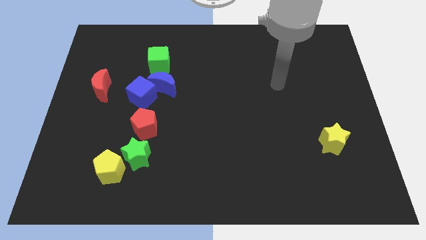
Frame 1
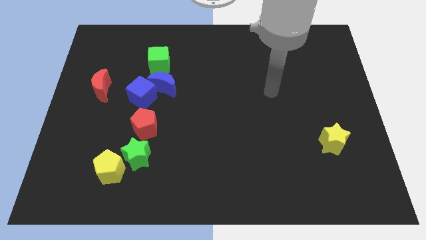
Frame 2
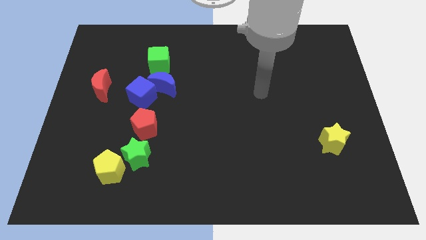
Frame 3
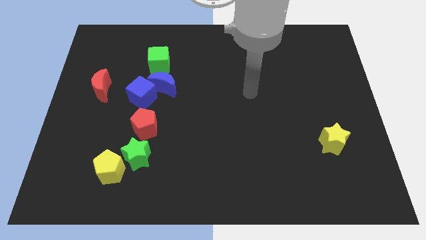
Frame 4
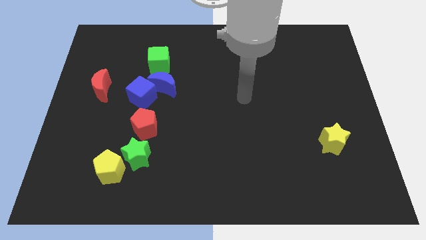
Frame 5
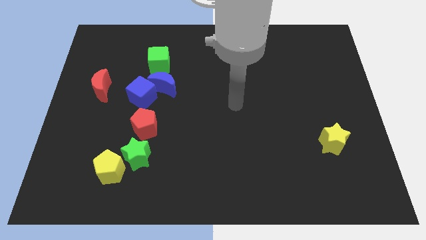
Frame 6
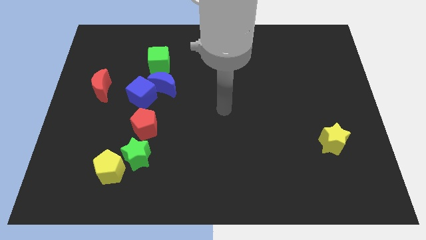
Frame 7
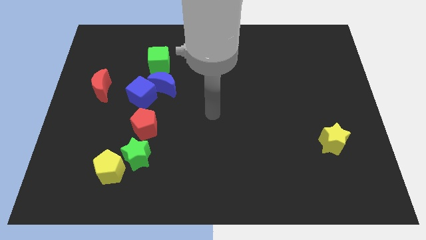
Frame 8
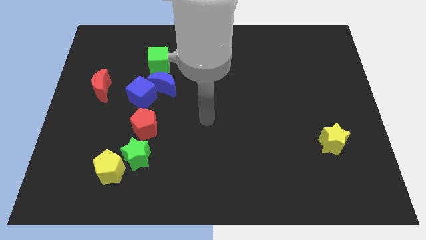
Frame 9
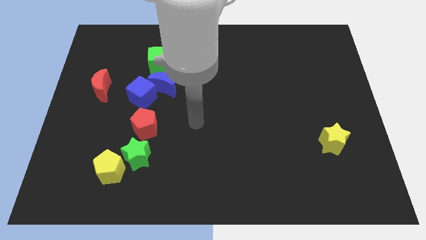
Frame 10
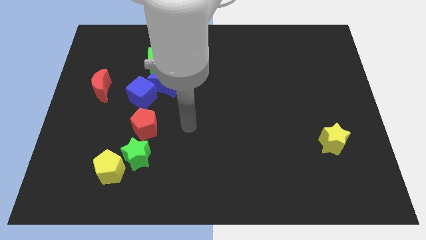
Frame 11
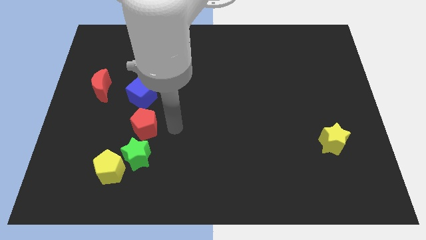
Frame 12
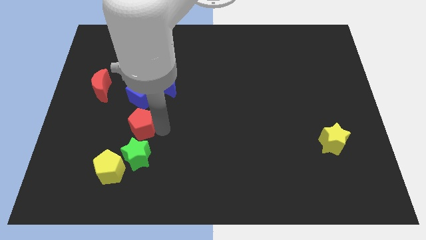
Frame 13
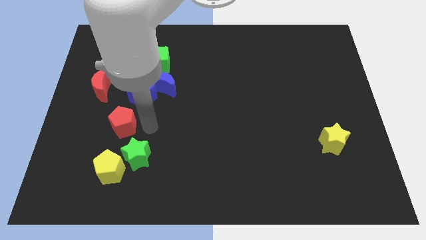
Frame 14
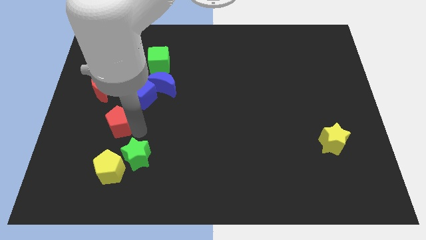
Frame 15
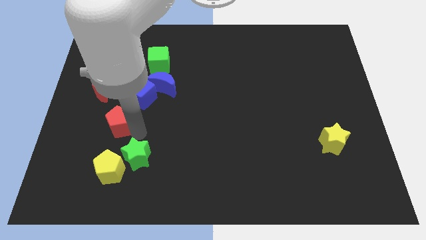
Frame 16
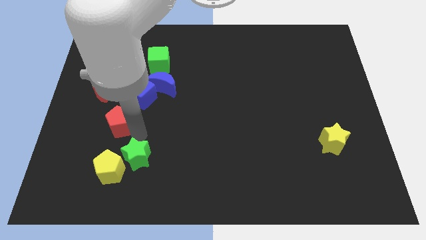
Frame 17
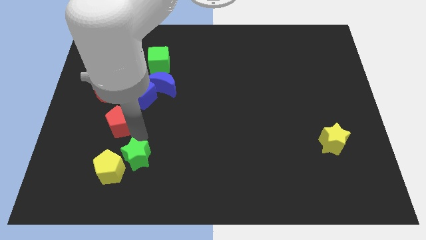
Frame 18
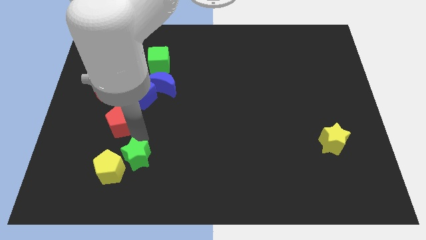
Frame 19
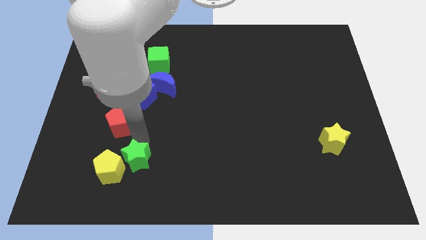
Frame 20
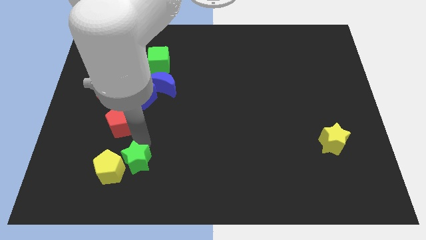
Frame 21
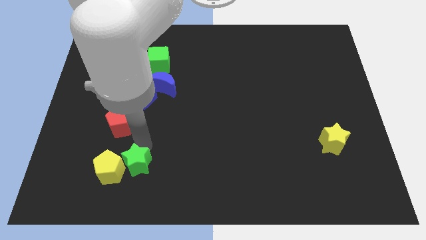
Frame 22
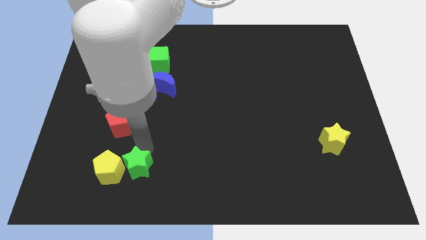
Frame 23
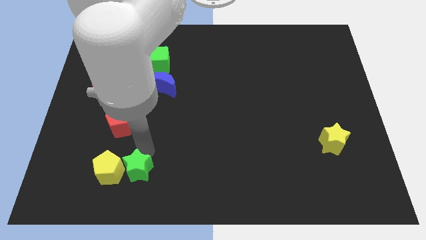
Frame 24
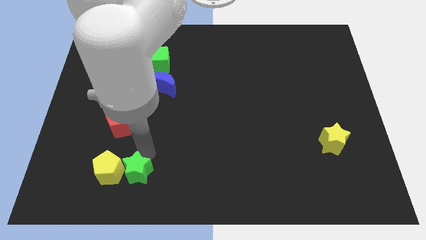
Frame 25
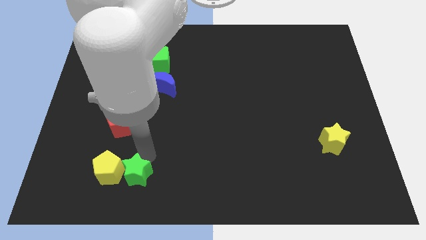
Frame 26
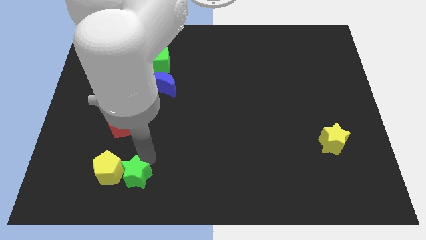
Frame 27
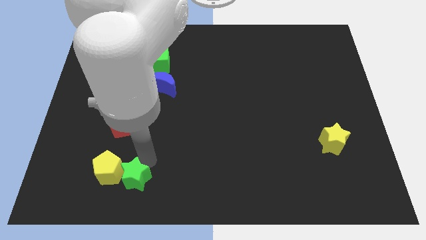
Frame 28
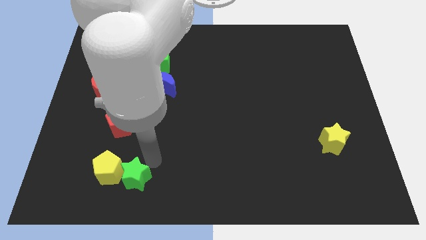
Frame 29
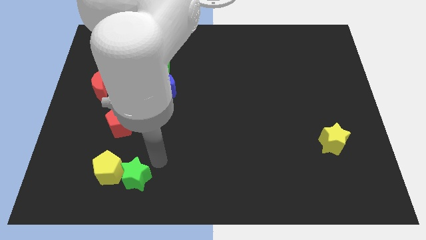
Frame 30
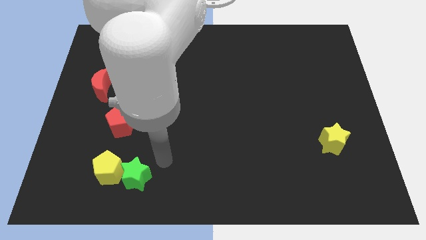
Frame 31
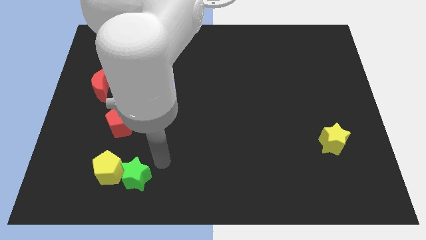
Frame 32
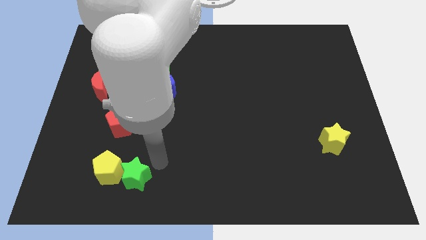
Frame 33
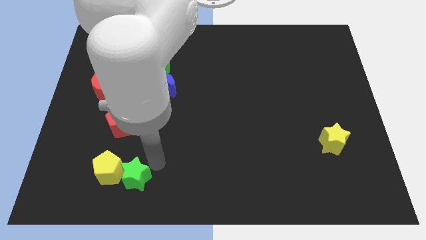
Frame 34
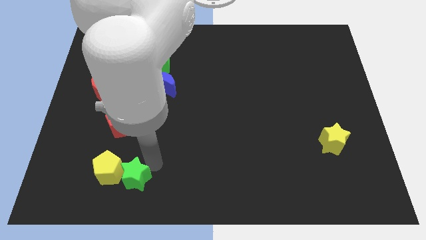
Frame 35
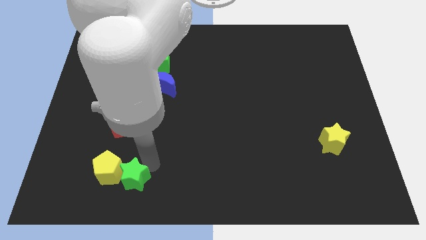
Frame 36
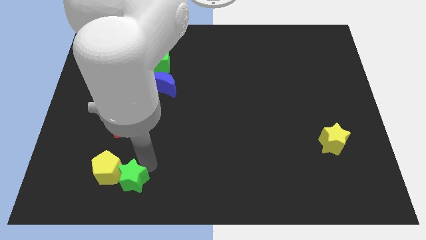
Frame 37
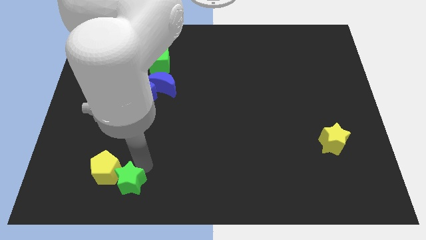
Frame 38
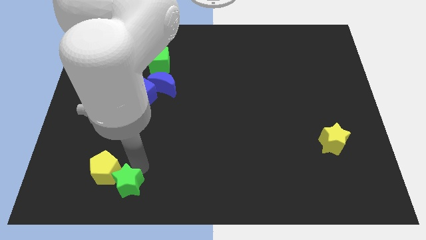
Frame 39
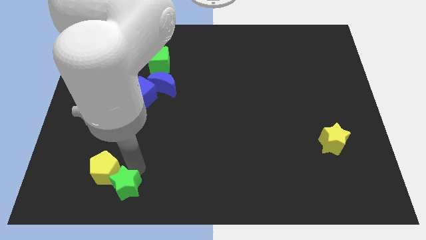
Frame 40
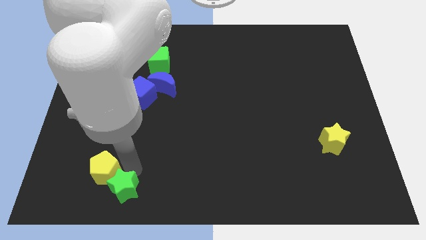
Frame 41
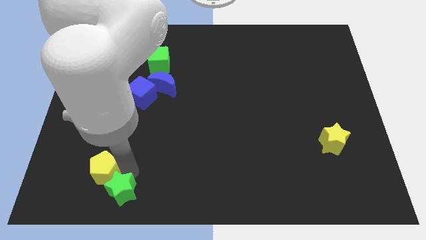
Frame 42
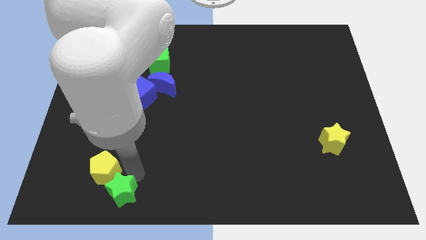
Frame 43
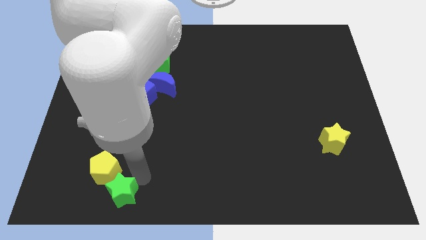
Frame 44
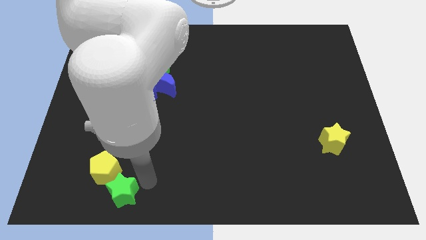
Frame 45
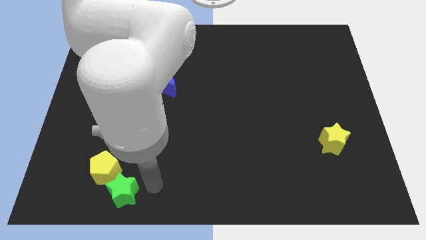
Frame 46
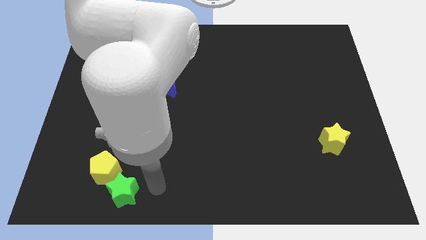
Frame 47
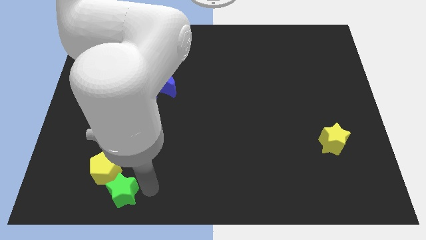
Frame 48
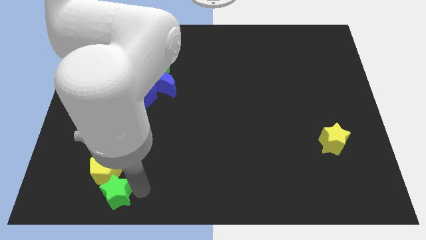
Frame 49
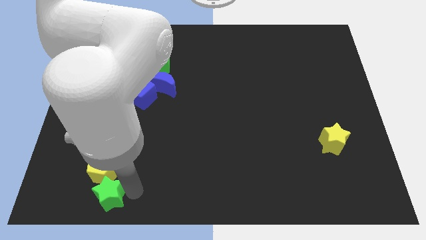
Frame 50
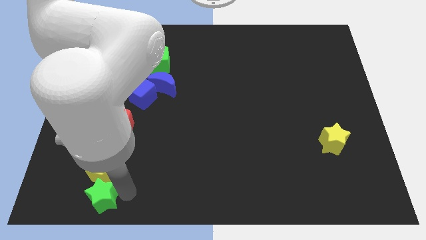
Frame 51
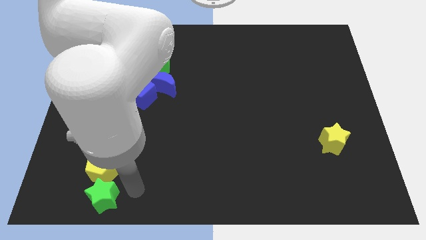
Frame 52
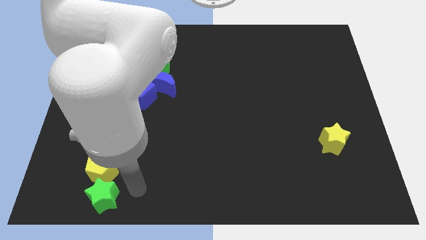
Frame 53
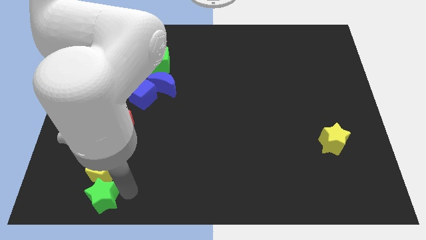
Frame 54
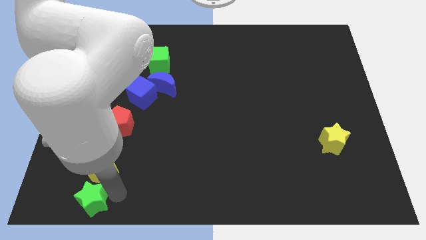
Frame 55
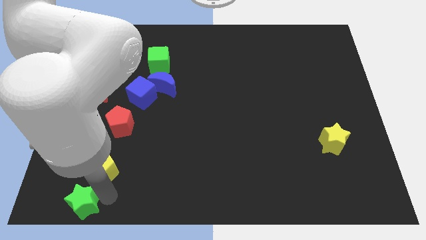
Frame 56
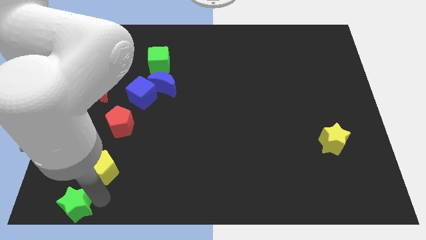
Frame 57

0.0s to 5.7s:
push the green star to the bottom left of the board

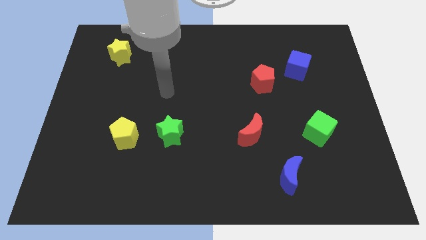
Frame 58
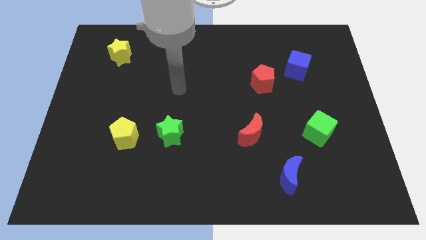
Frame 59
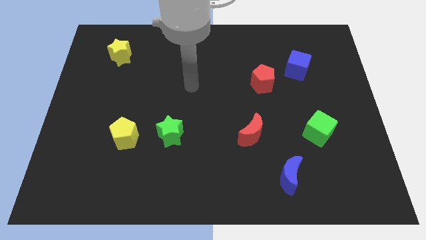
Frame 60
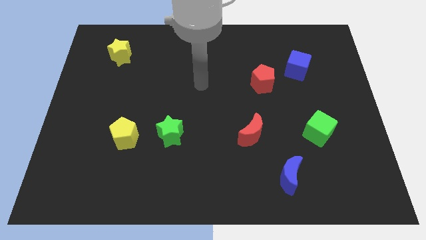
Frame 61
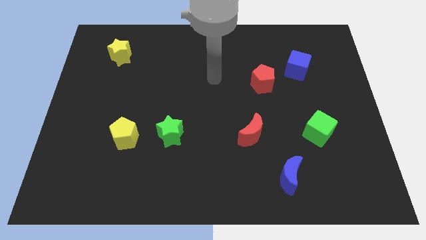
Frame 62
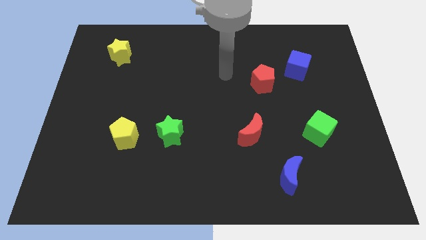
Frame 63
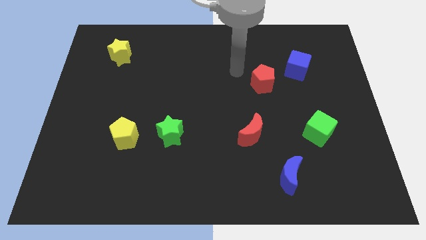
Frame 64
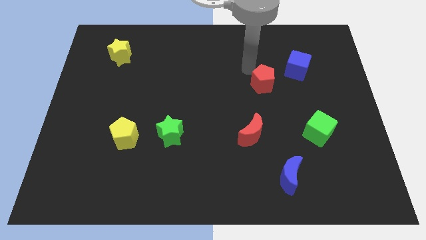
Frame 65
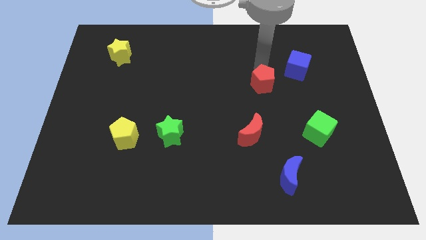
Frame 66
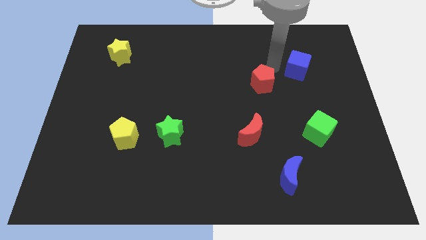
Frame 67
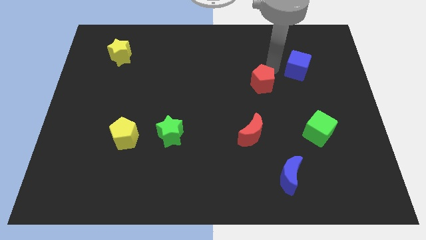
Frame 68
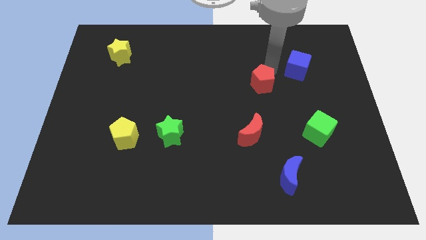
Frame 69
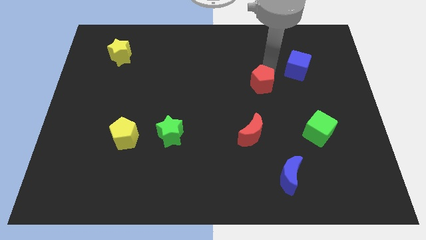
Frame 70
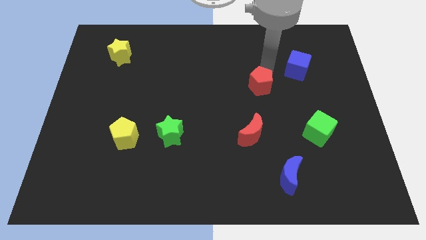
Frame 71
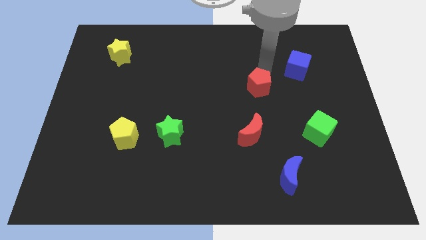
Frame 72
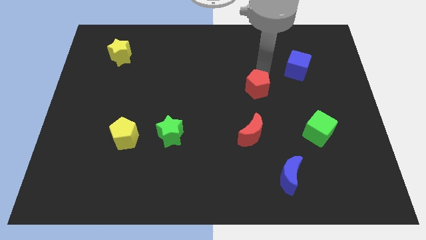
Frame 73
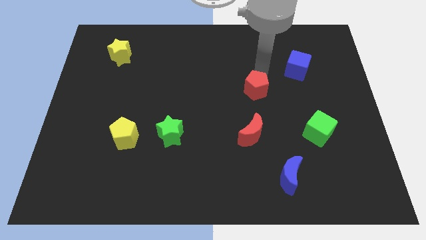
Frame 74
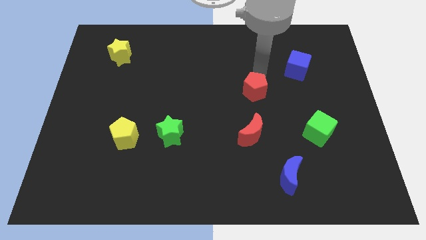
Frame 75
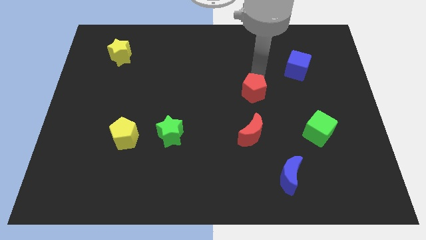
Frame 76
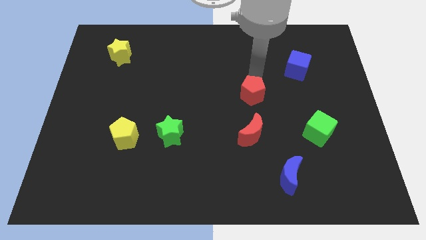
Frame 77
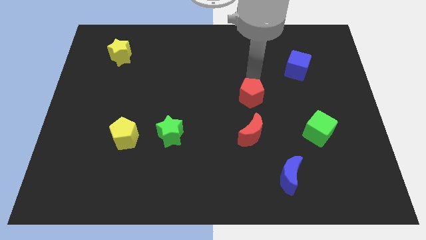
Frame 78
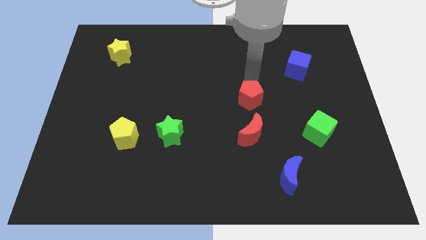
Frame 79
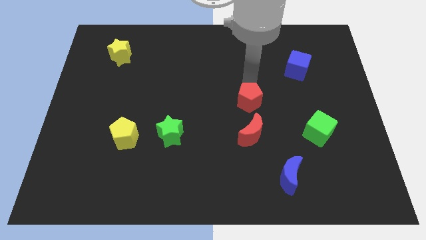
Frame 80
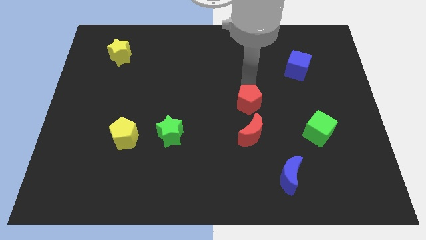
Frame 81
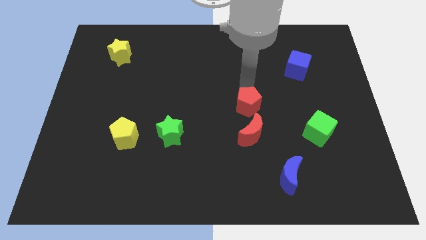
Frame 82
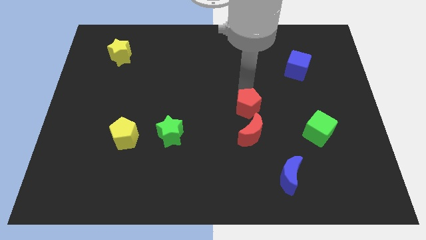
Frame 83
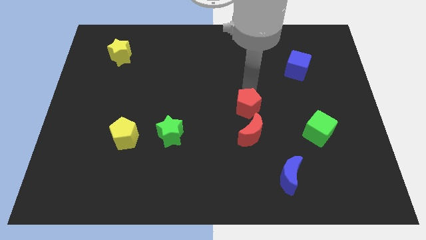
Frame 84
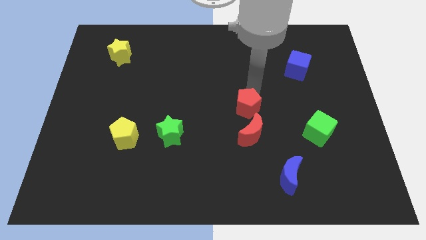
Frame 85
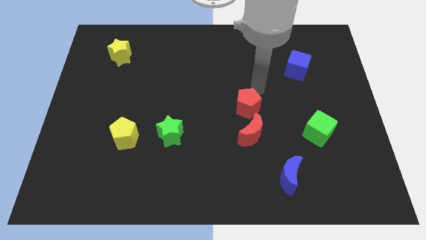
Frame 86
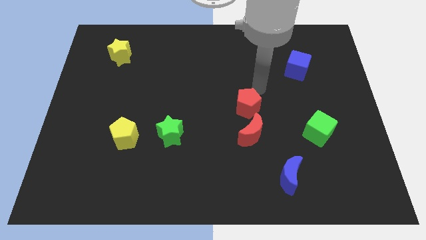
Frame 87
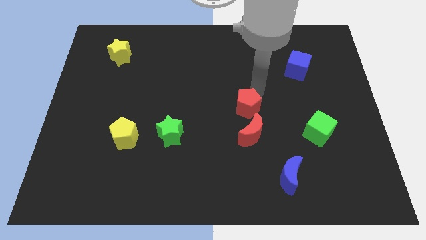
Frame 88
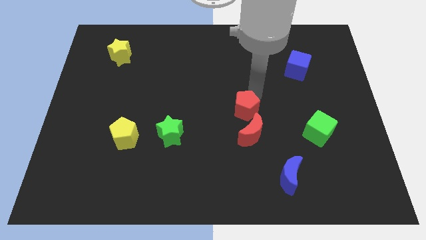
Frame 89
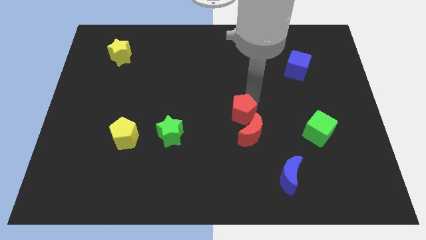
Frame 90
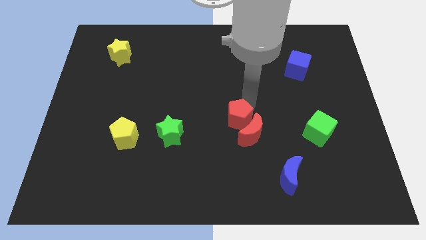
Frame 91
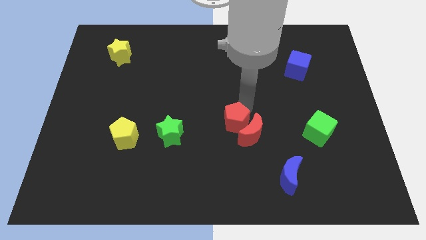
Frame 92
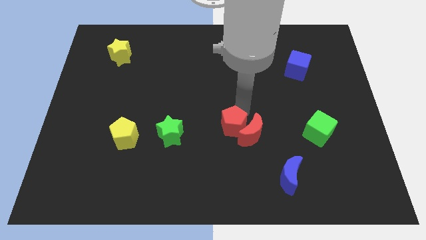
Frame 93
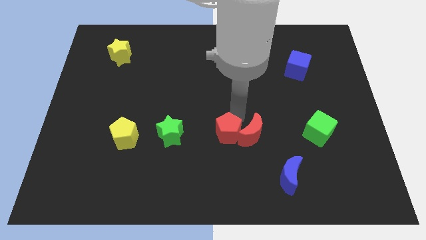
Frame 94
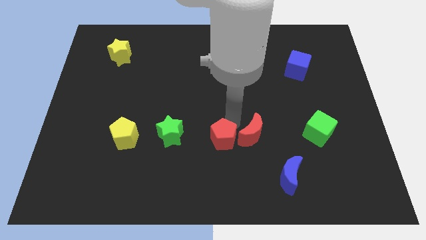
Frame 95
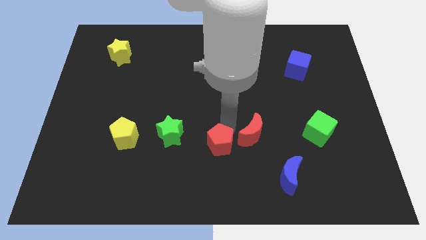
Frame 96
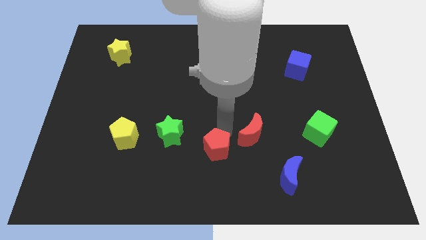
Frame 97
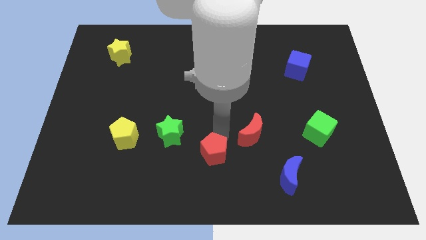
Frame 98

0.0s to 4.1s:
put the red pentagon to the bottom
